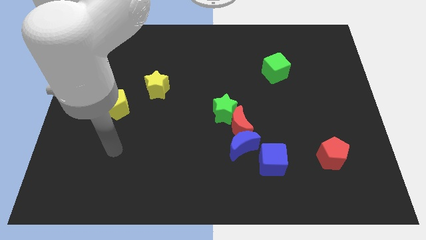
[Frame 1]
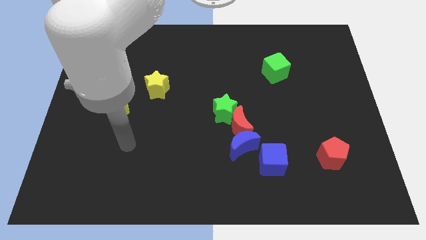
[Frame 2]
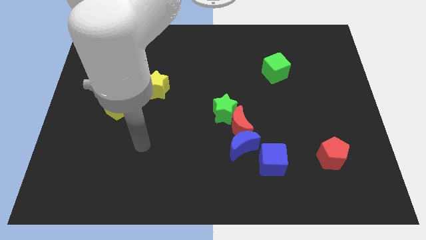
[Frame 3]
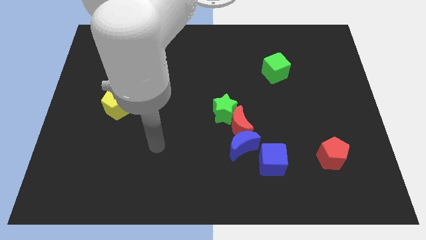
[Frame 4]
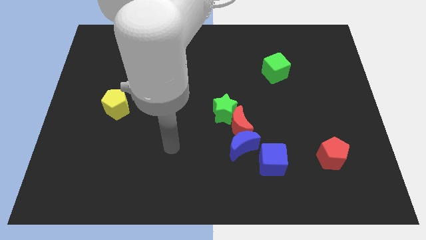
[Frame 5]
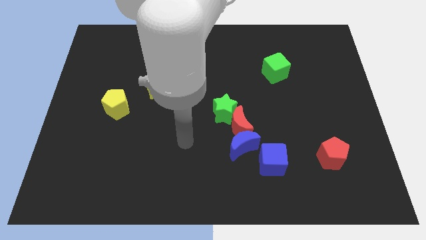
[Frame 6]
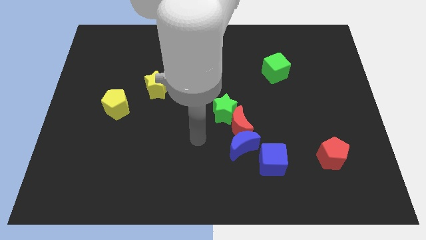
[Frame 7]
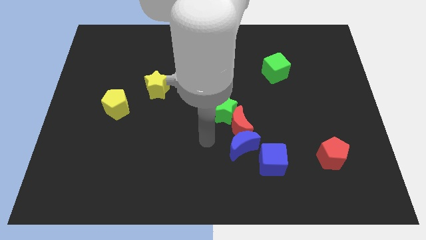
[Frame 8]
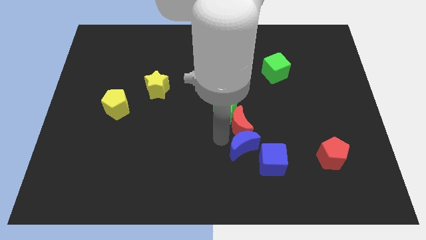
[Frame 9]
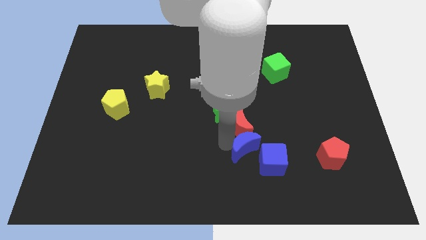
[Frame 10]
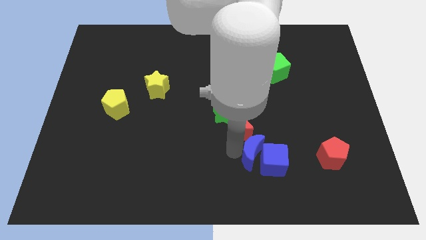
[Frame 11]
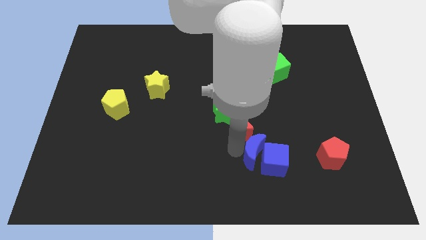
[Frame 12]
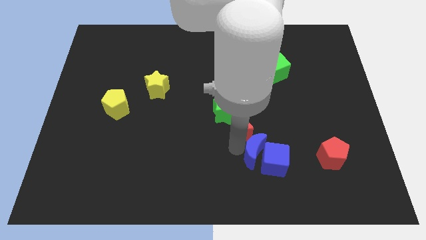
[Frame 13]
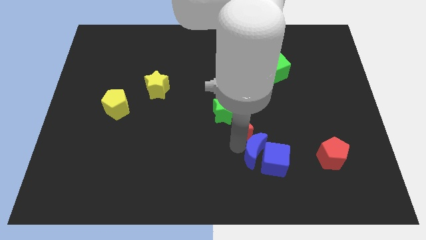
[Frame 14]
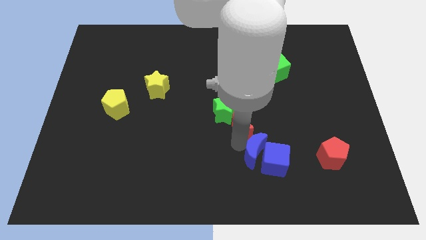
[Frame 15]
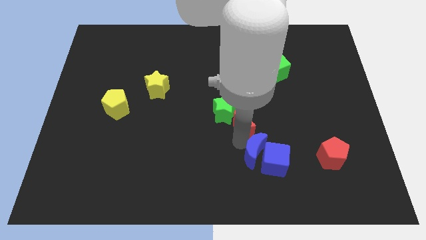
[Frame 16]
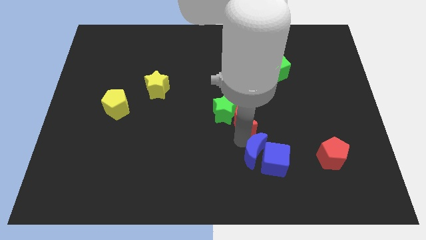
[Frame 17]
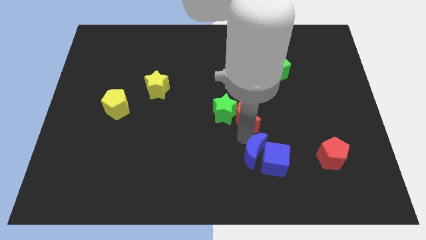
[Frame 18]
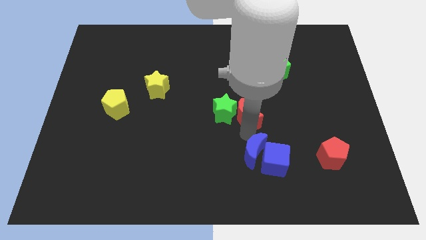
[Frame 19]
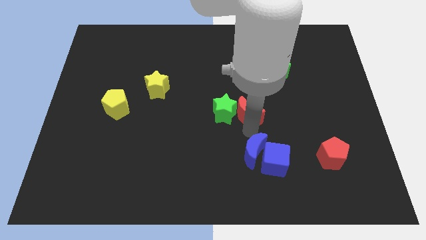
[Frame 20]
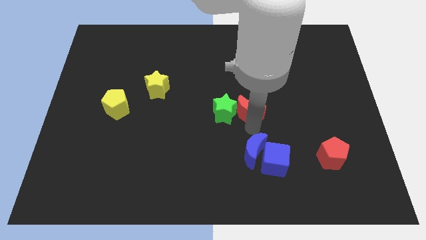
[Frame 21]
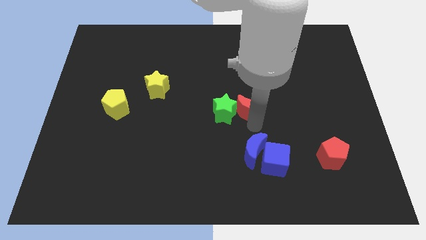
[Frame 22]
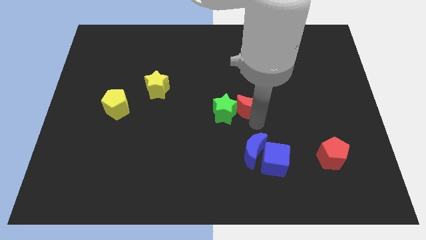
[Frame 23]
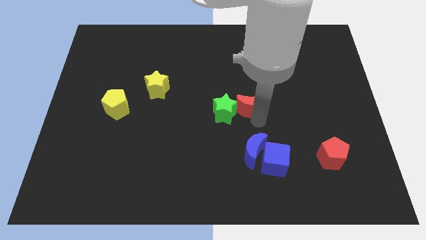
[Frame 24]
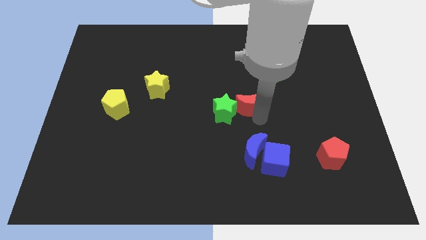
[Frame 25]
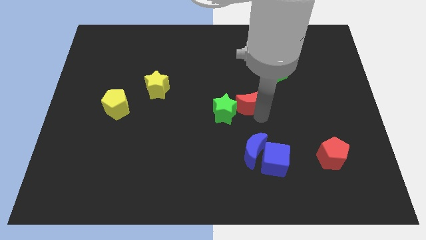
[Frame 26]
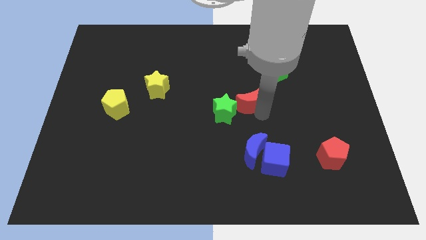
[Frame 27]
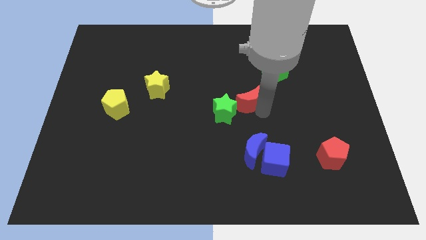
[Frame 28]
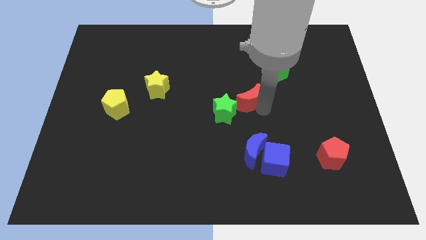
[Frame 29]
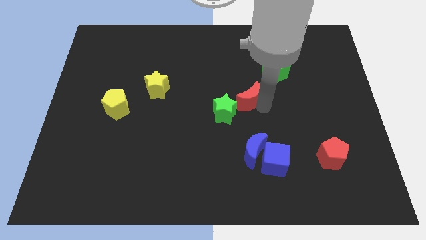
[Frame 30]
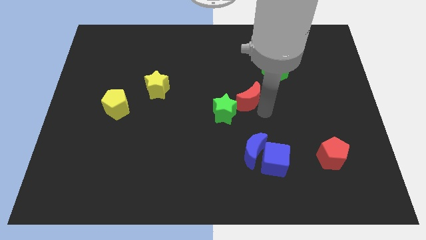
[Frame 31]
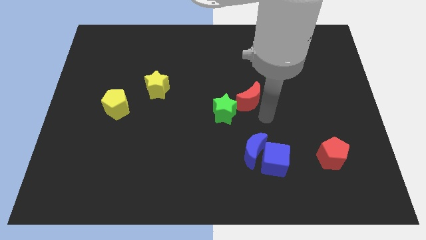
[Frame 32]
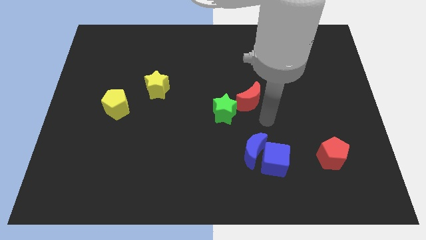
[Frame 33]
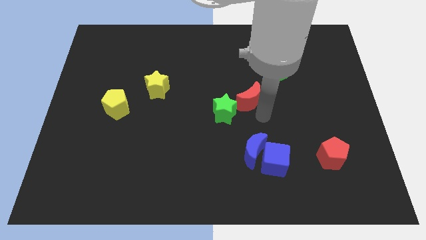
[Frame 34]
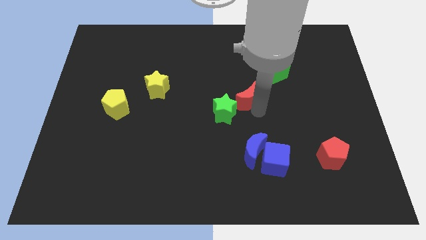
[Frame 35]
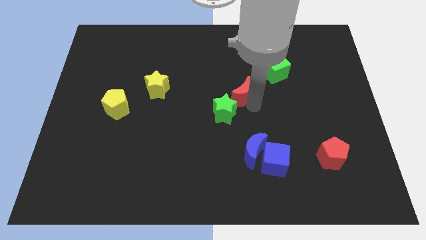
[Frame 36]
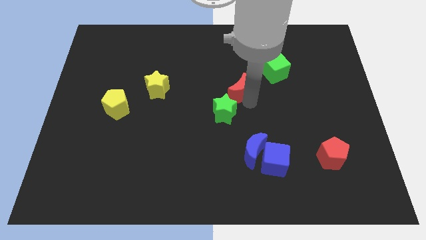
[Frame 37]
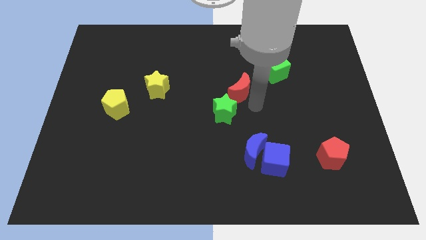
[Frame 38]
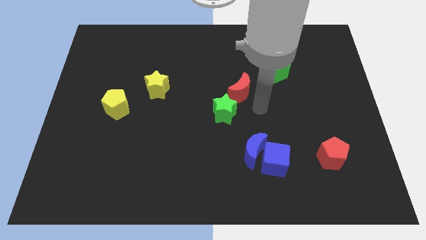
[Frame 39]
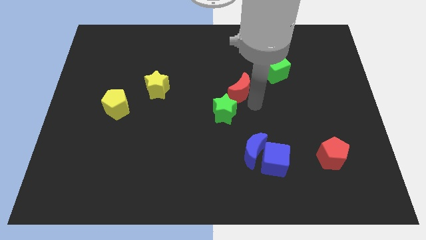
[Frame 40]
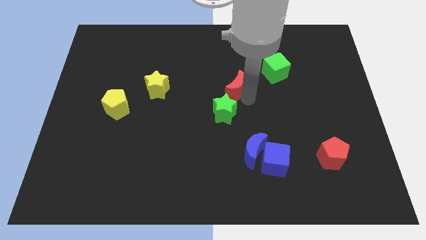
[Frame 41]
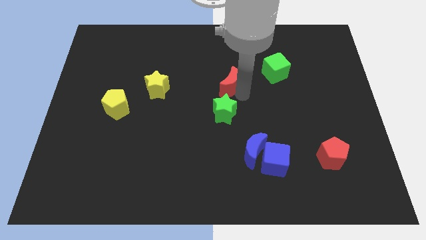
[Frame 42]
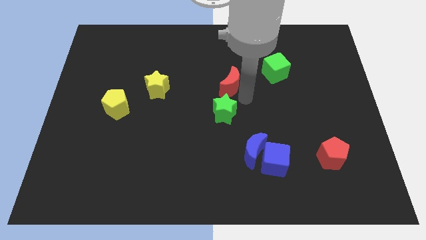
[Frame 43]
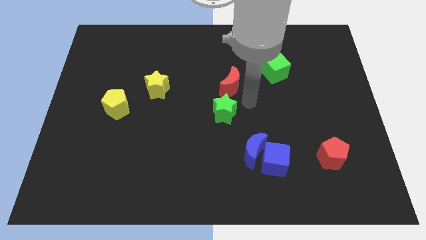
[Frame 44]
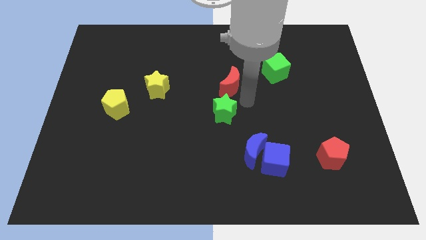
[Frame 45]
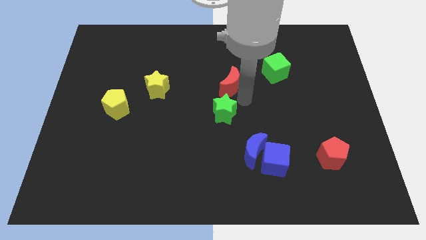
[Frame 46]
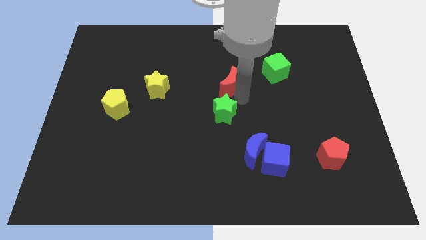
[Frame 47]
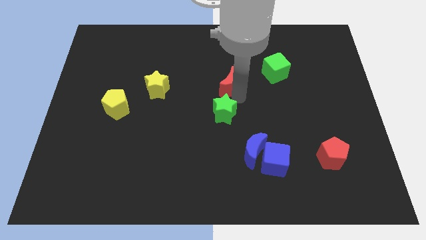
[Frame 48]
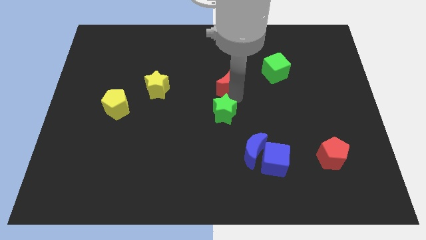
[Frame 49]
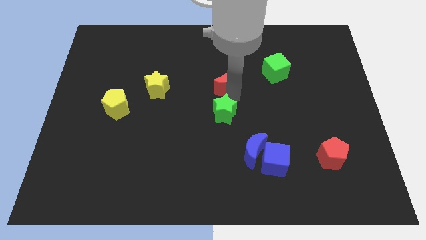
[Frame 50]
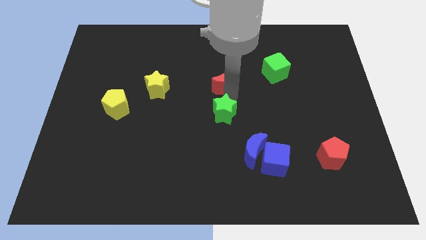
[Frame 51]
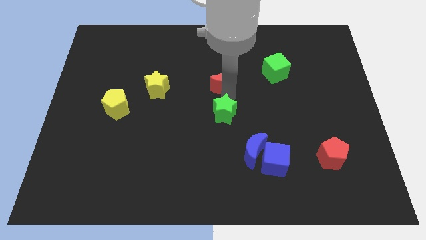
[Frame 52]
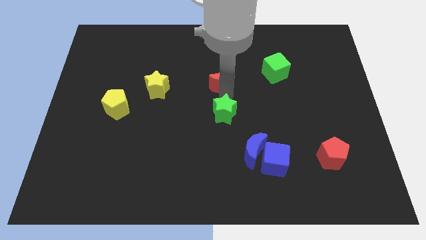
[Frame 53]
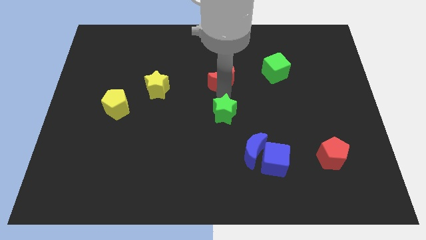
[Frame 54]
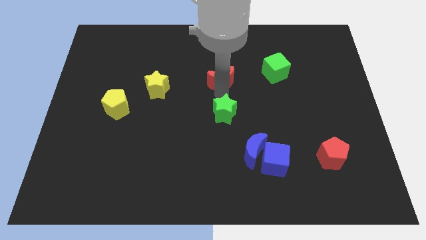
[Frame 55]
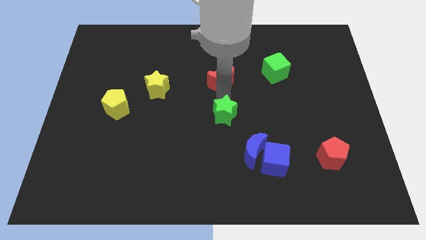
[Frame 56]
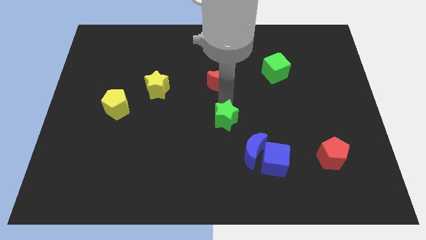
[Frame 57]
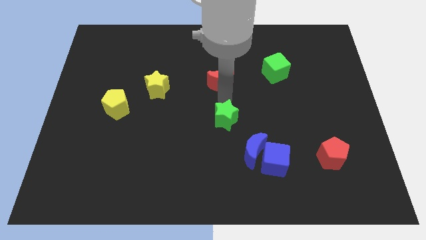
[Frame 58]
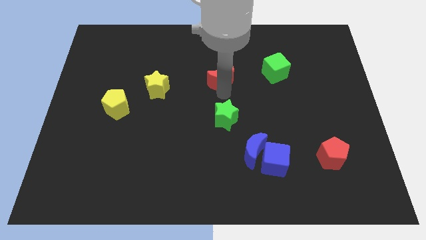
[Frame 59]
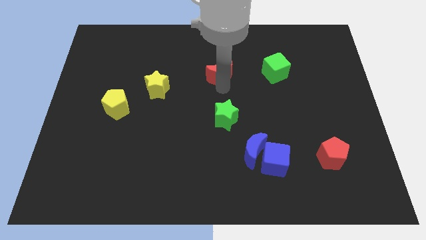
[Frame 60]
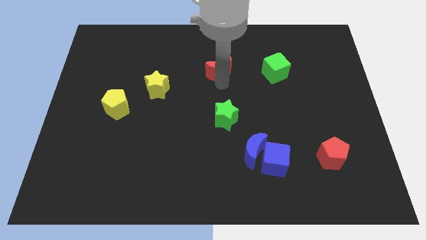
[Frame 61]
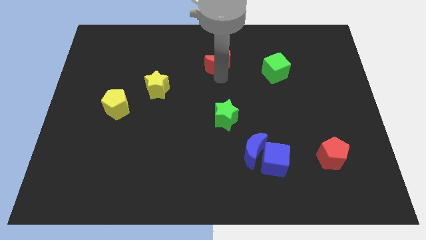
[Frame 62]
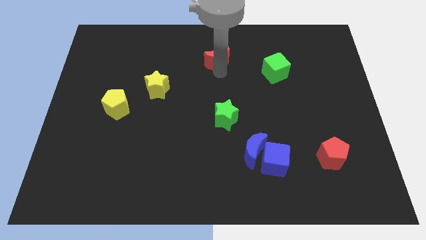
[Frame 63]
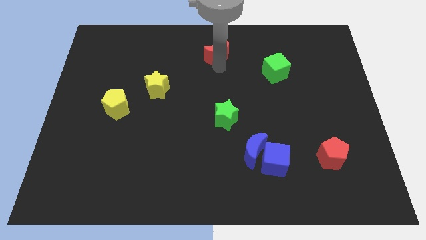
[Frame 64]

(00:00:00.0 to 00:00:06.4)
put the red moon to the top

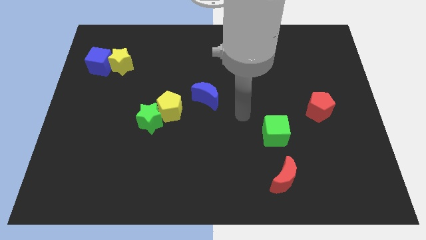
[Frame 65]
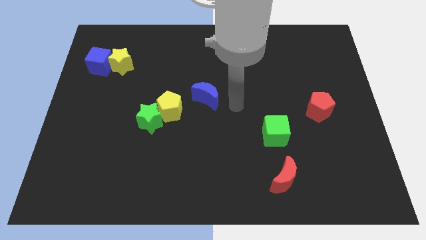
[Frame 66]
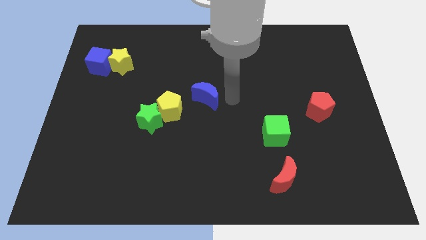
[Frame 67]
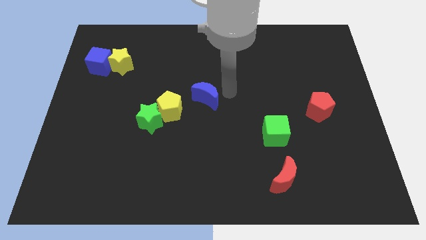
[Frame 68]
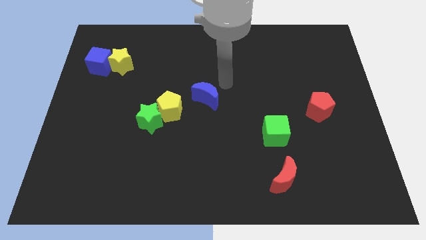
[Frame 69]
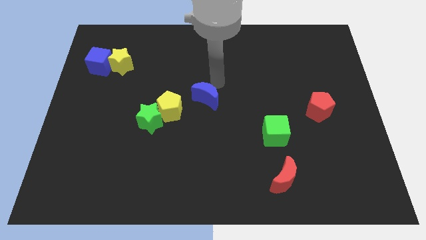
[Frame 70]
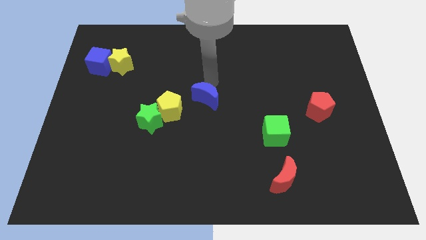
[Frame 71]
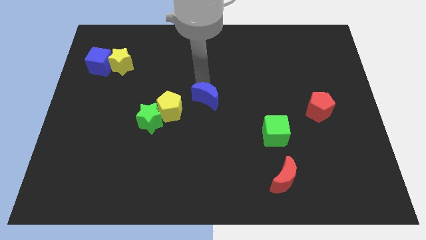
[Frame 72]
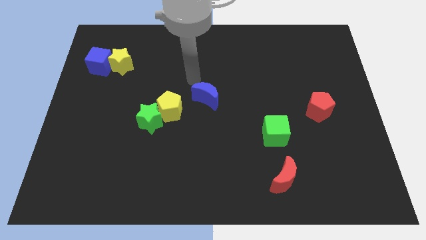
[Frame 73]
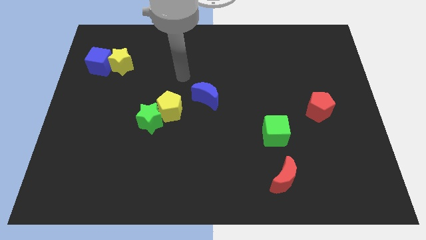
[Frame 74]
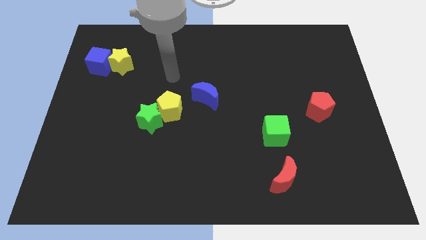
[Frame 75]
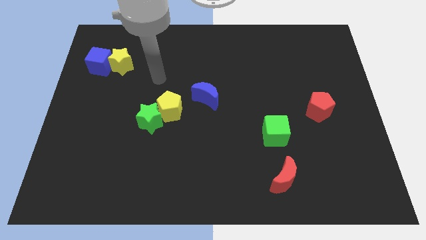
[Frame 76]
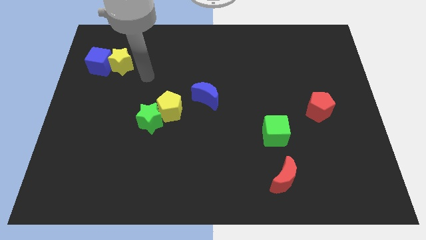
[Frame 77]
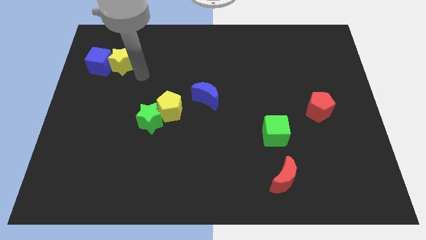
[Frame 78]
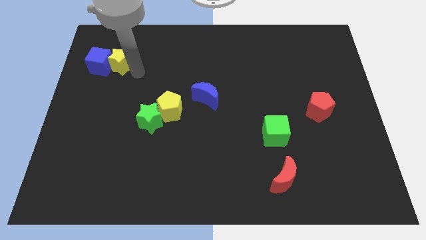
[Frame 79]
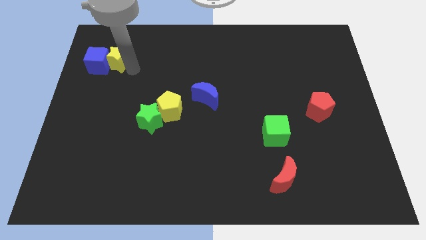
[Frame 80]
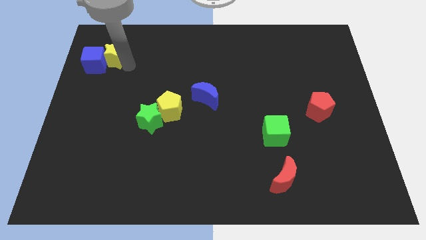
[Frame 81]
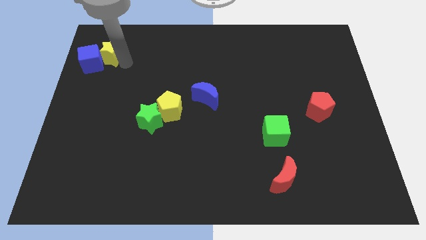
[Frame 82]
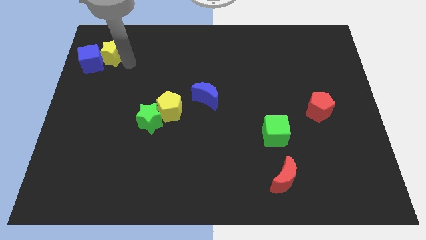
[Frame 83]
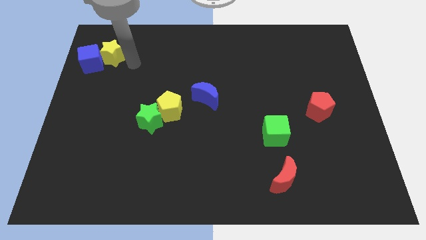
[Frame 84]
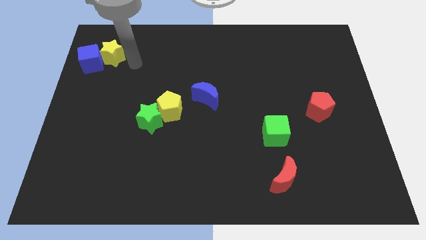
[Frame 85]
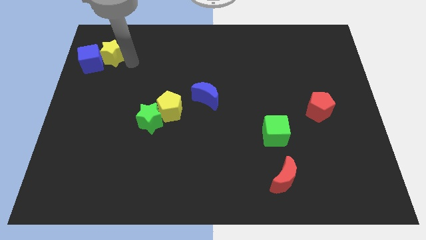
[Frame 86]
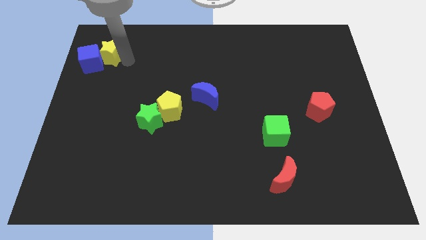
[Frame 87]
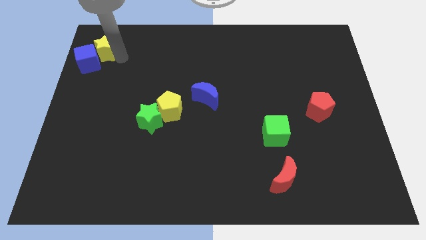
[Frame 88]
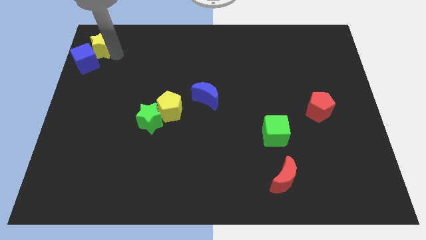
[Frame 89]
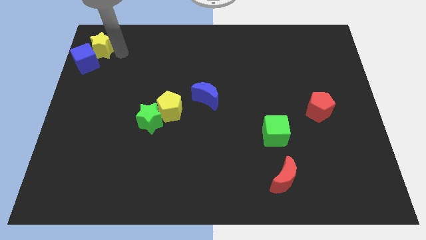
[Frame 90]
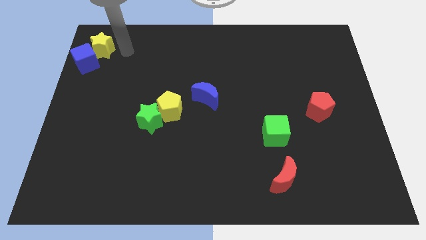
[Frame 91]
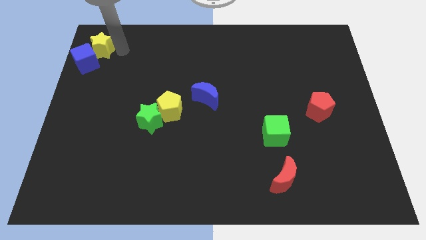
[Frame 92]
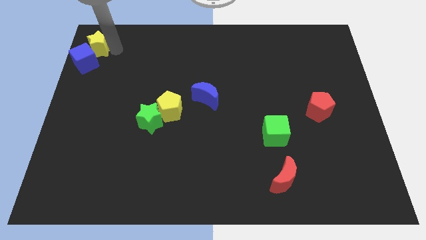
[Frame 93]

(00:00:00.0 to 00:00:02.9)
slide the yellow star to the top left corner
